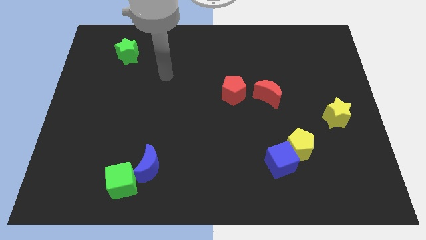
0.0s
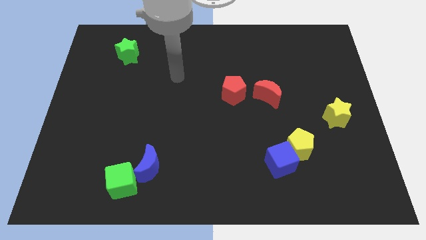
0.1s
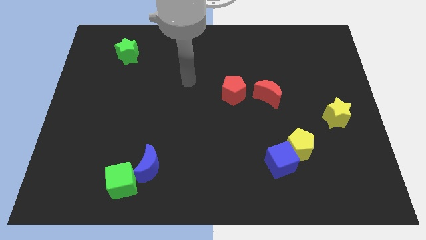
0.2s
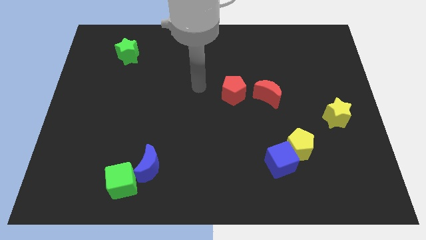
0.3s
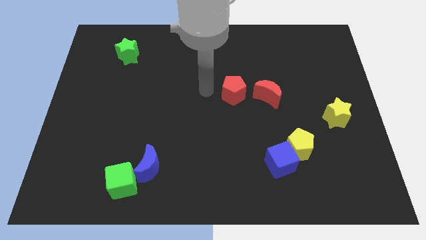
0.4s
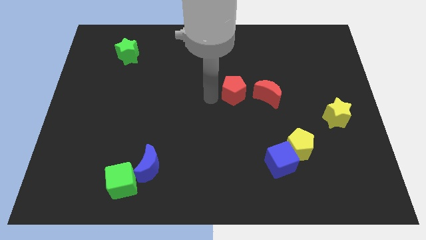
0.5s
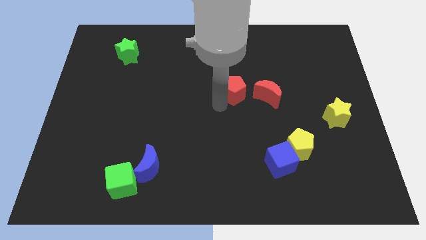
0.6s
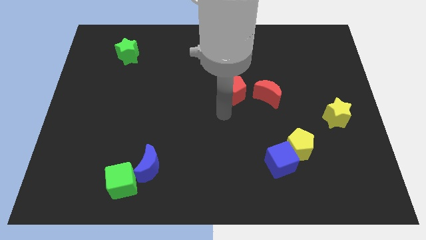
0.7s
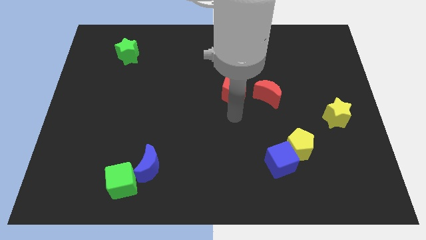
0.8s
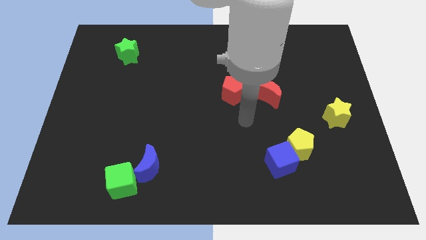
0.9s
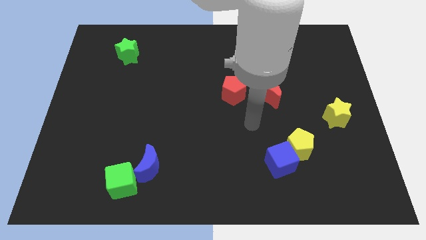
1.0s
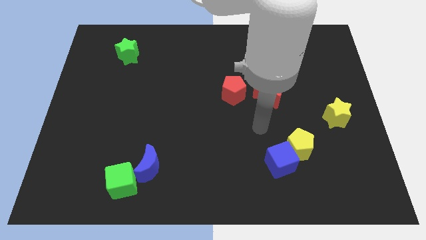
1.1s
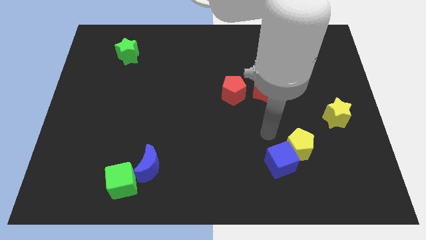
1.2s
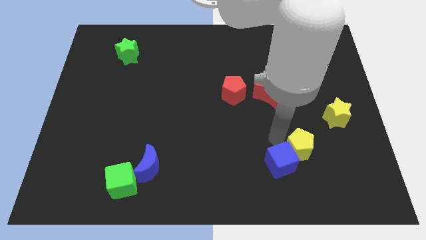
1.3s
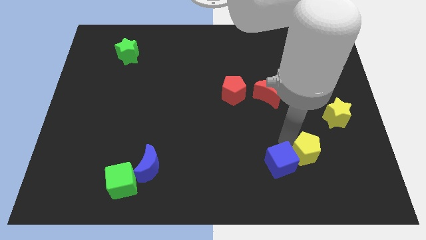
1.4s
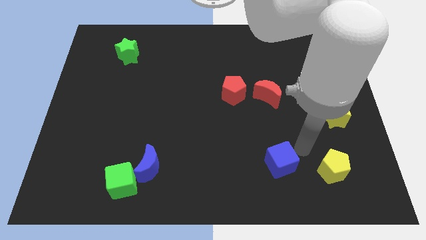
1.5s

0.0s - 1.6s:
pull the blue cube apart from the yellow pentagon

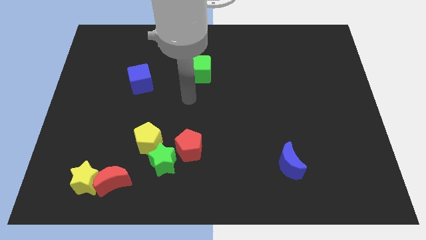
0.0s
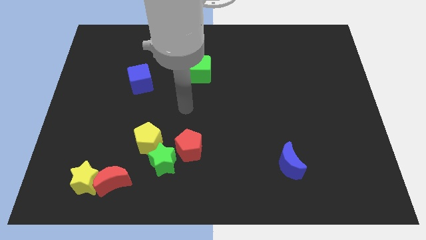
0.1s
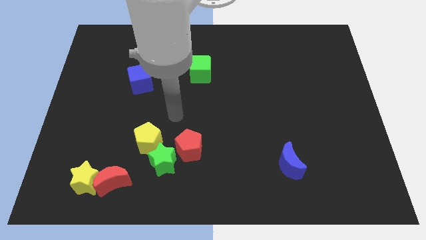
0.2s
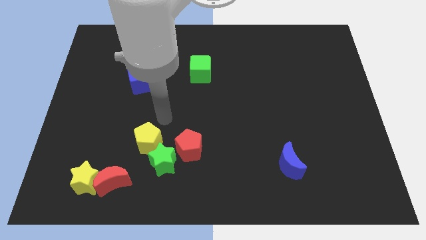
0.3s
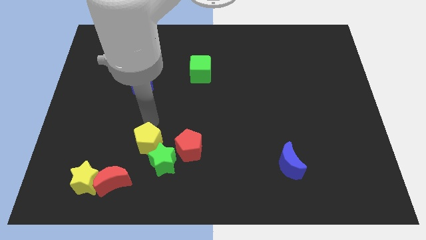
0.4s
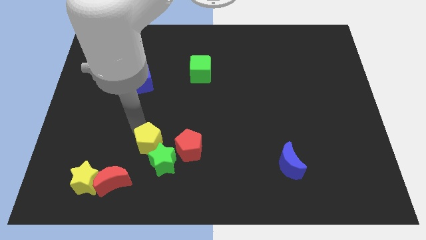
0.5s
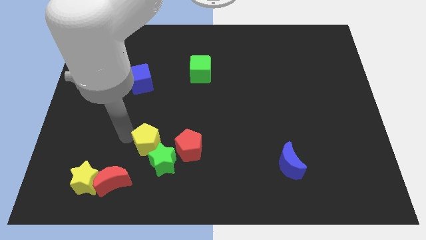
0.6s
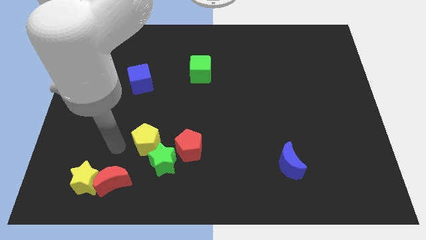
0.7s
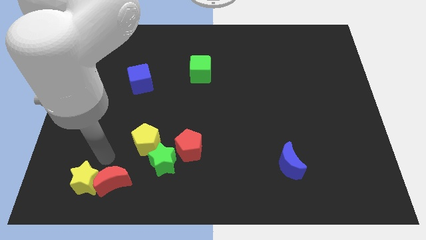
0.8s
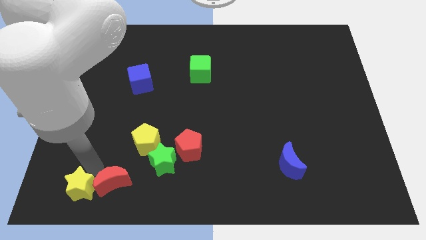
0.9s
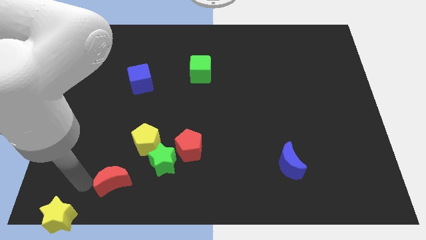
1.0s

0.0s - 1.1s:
move the red moon away from the yellow star

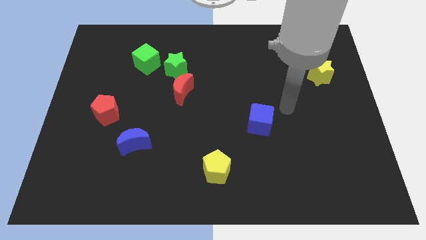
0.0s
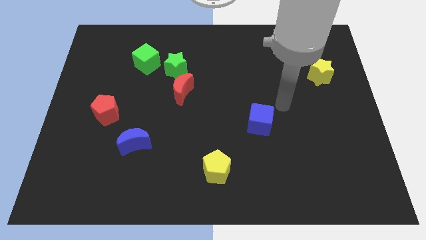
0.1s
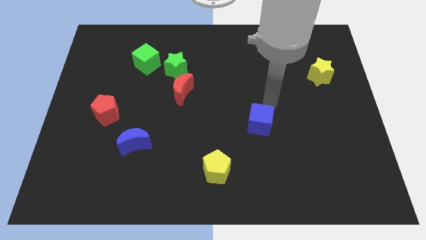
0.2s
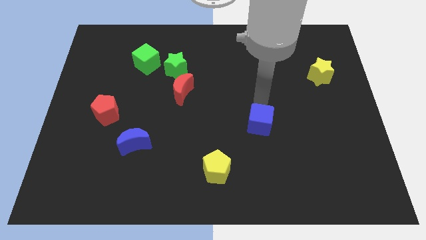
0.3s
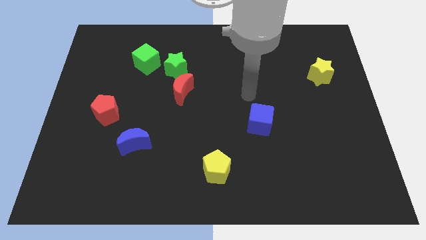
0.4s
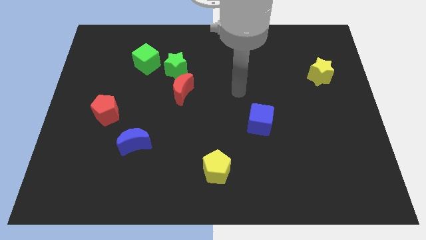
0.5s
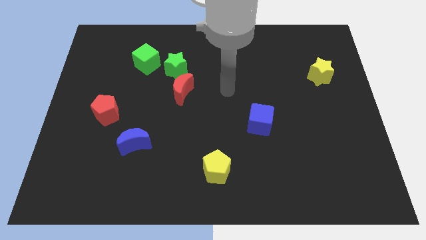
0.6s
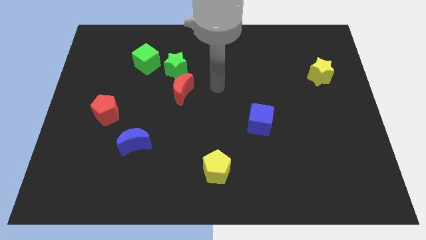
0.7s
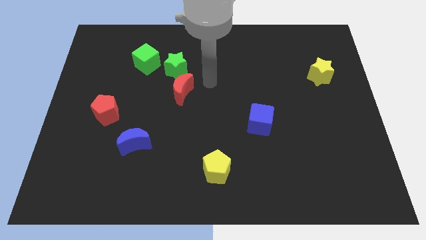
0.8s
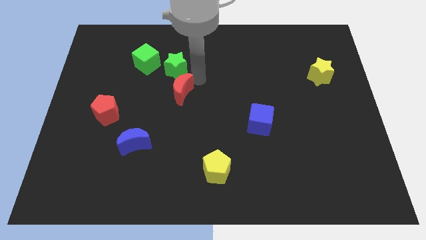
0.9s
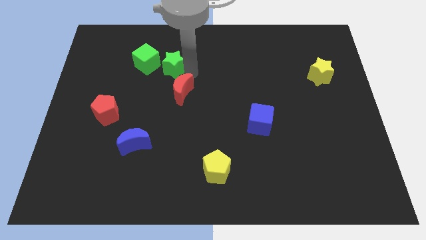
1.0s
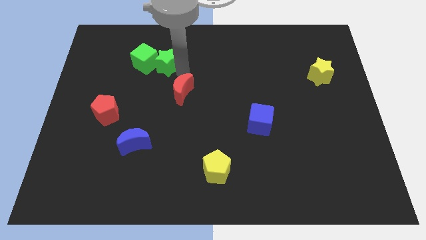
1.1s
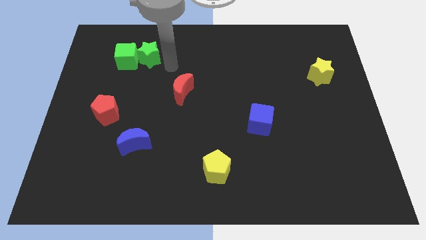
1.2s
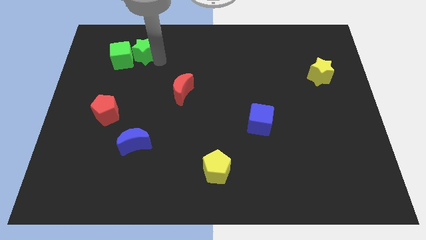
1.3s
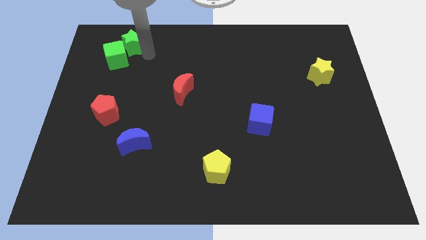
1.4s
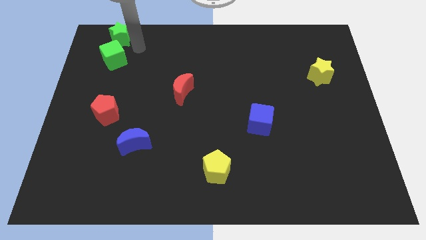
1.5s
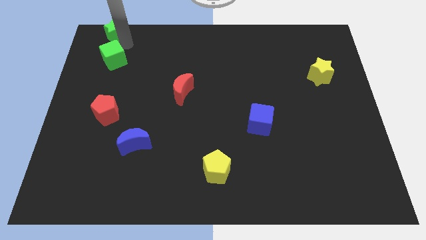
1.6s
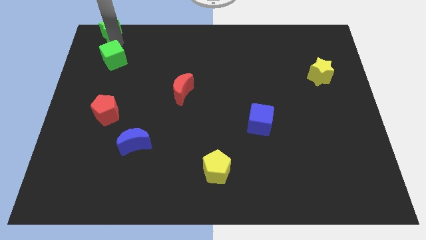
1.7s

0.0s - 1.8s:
move the green cube away from the green star

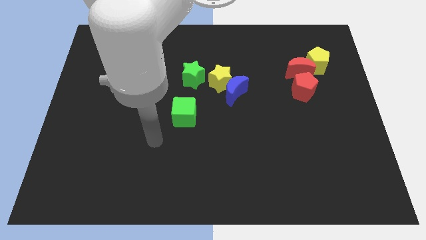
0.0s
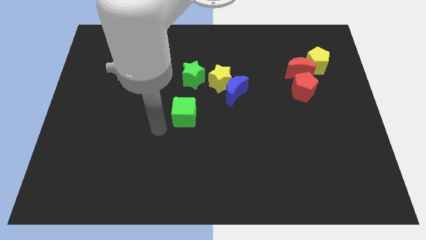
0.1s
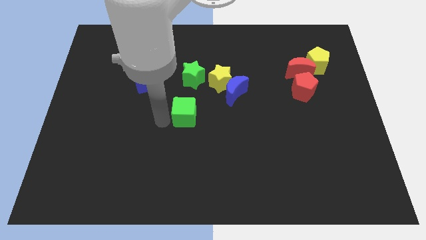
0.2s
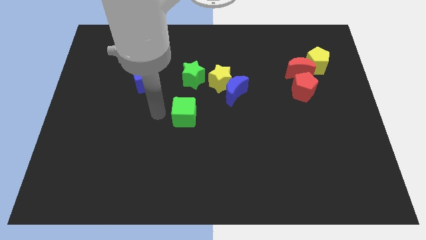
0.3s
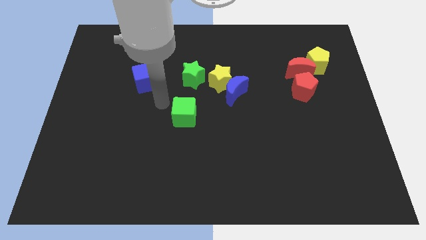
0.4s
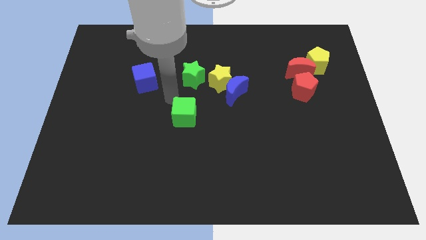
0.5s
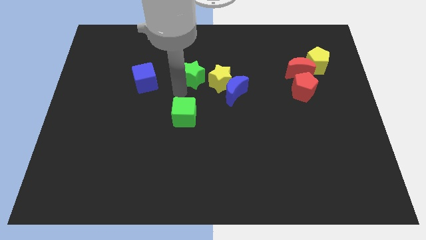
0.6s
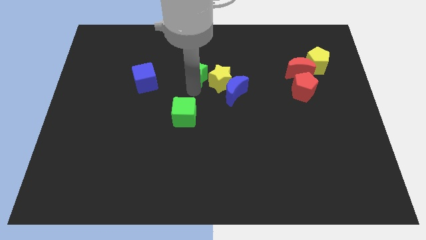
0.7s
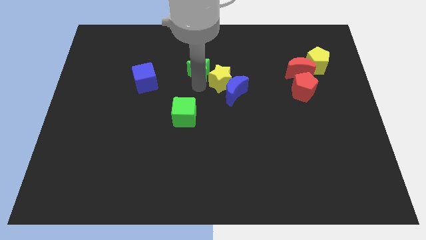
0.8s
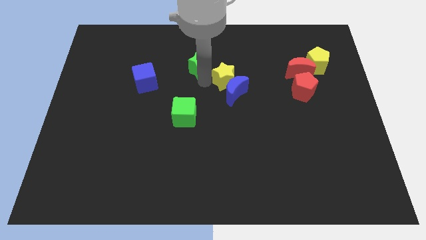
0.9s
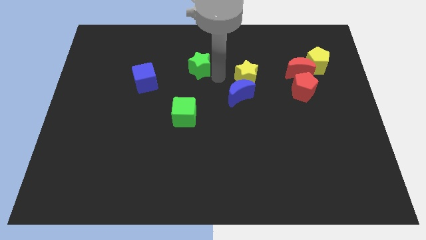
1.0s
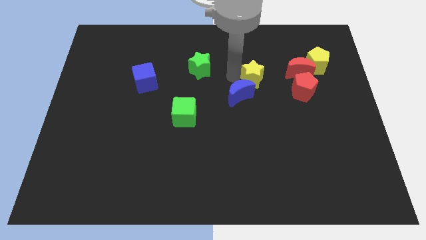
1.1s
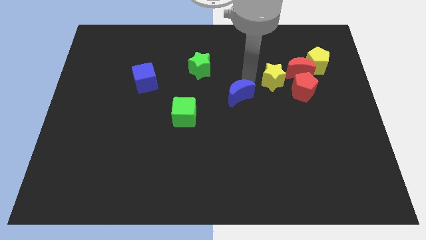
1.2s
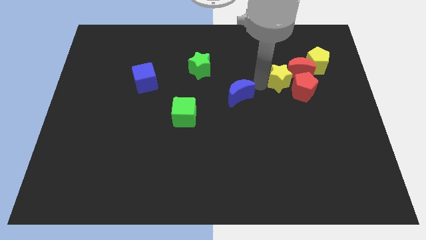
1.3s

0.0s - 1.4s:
pull the blue moon apart from the yellow star

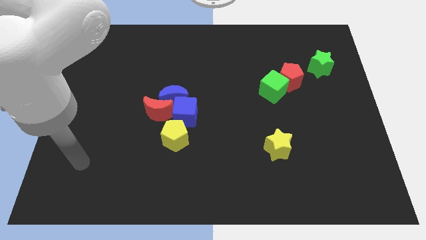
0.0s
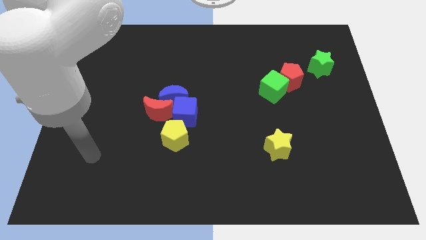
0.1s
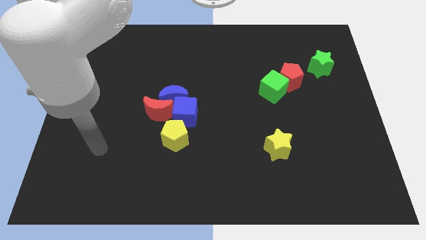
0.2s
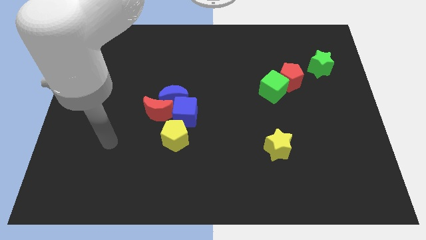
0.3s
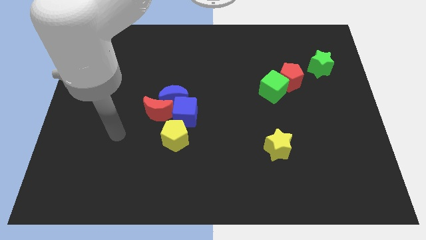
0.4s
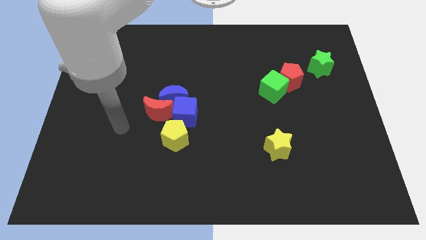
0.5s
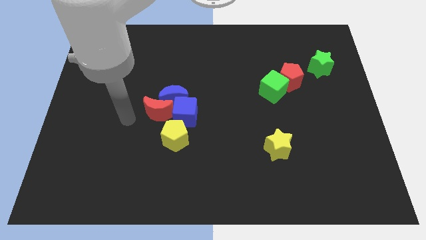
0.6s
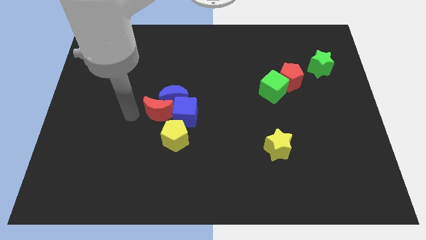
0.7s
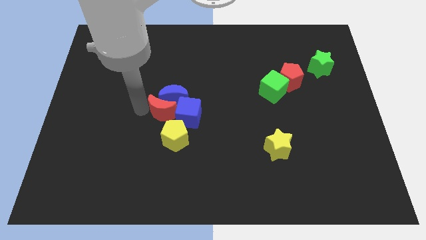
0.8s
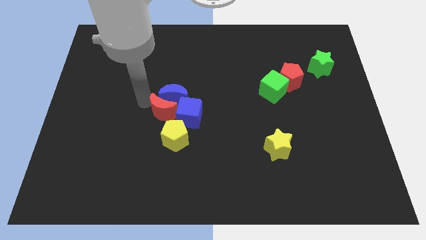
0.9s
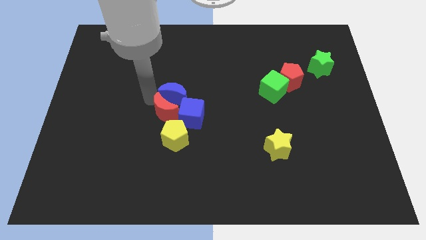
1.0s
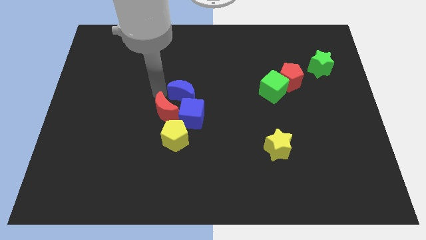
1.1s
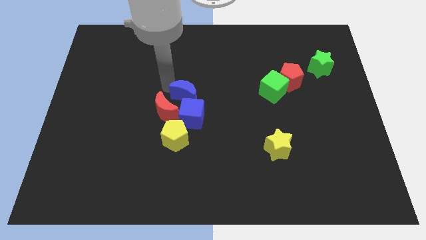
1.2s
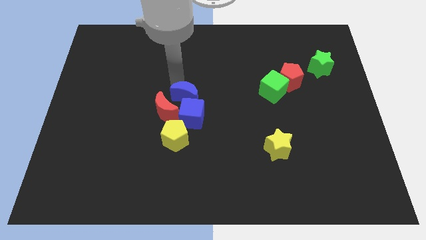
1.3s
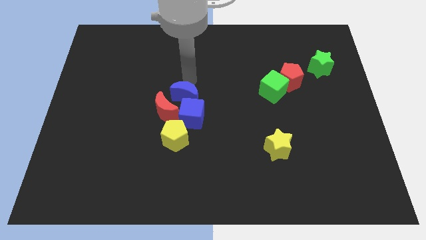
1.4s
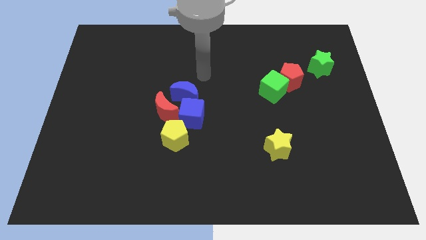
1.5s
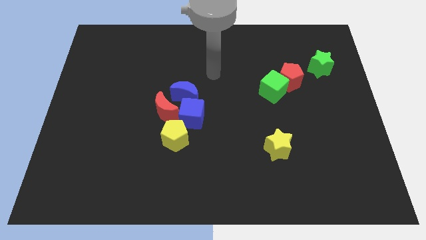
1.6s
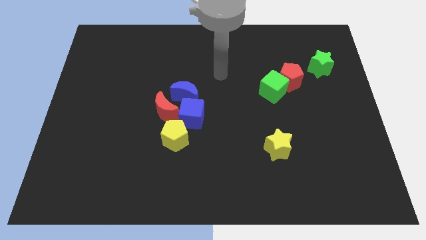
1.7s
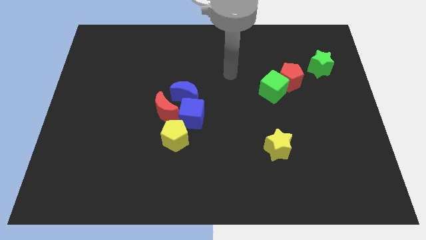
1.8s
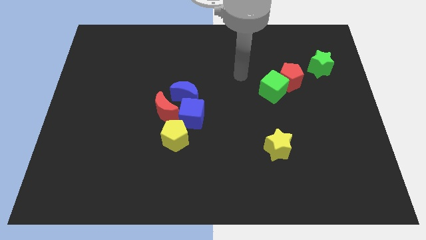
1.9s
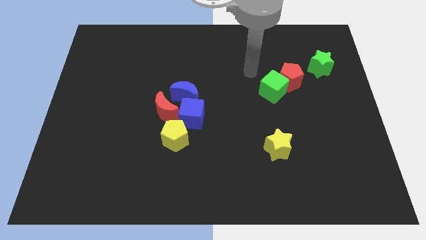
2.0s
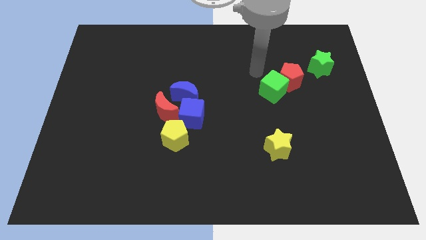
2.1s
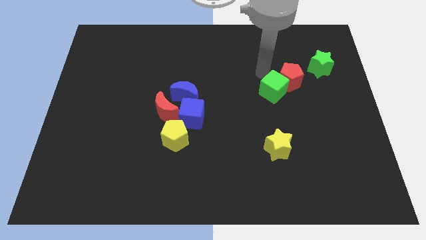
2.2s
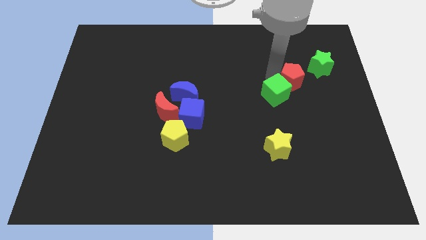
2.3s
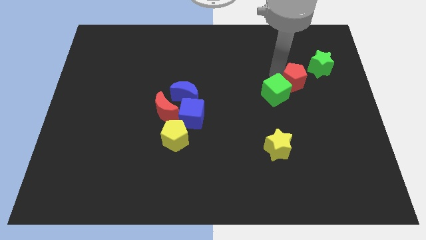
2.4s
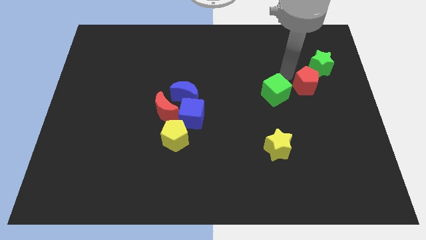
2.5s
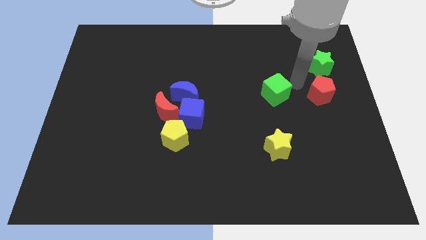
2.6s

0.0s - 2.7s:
pull the green cube apart from the red pentagon

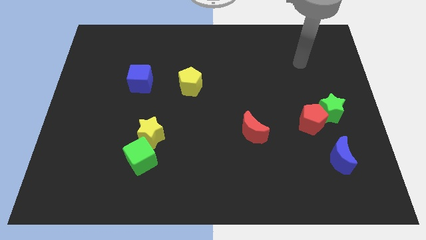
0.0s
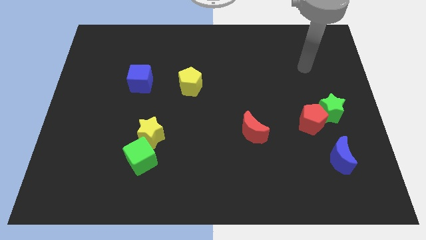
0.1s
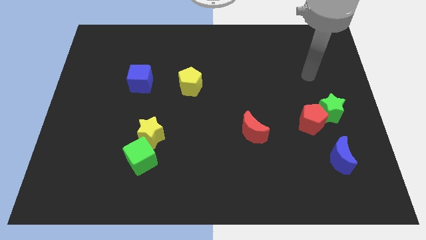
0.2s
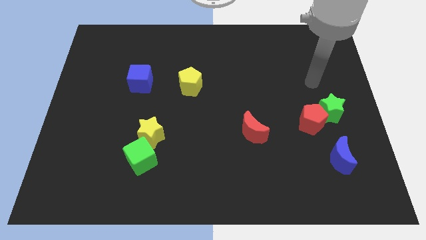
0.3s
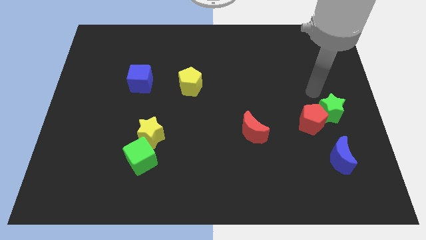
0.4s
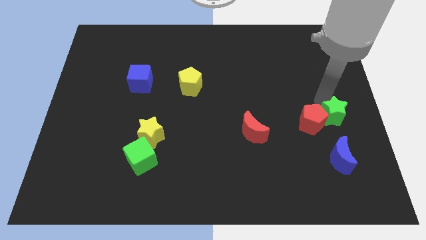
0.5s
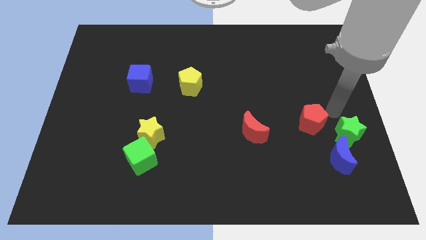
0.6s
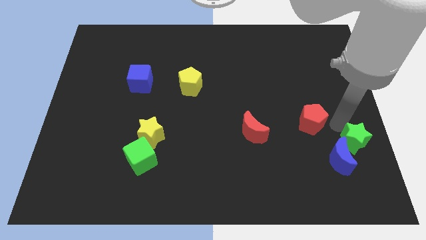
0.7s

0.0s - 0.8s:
separate the red pentagon from the green star

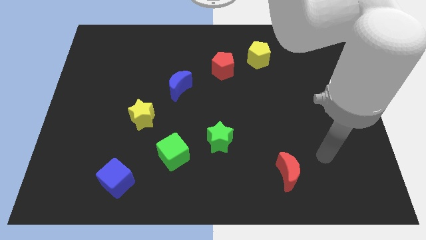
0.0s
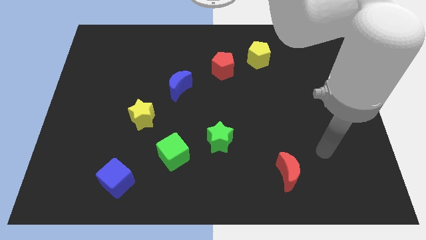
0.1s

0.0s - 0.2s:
move the red pentagon away from the yellow pentagon
